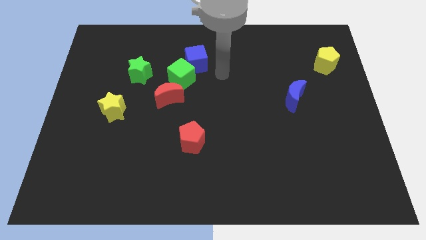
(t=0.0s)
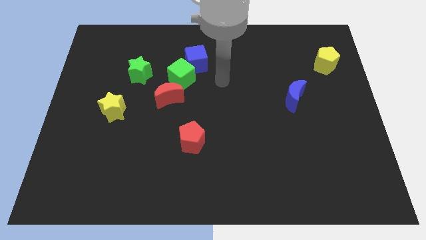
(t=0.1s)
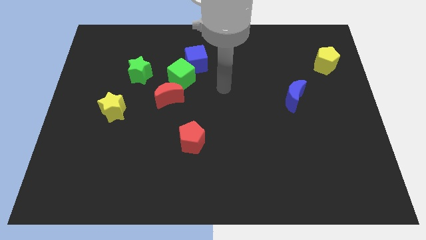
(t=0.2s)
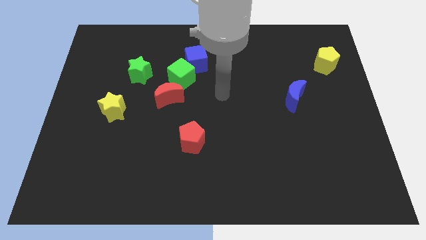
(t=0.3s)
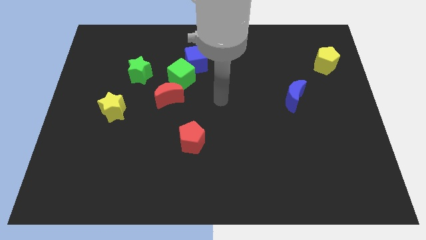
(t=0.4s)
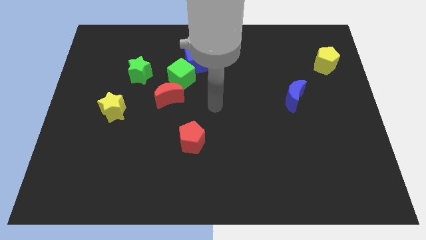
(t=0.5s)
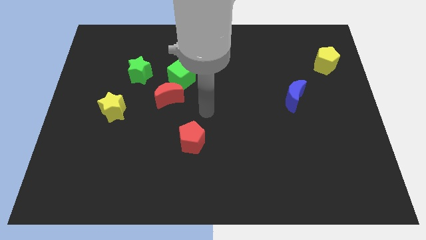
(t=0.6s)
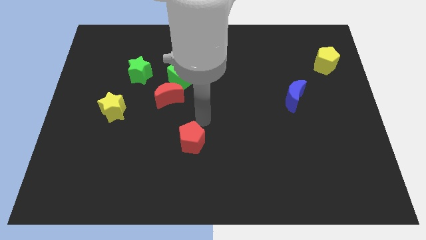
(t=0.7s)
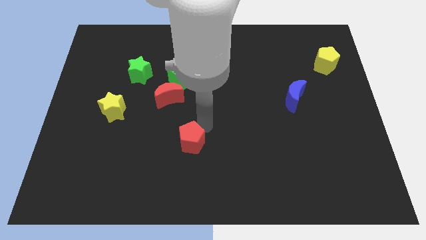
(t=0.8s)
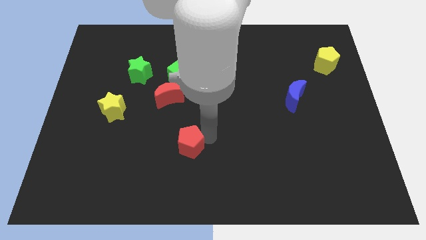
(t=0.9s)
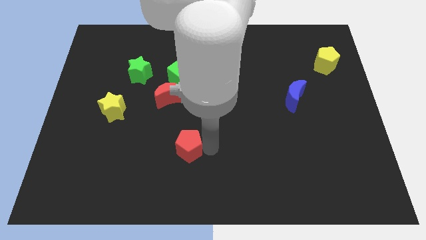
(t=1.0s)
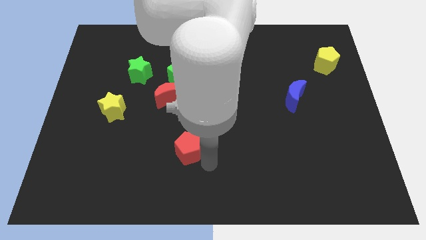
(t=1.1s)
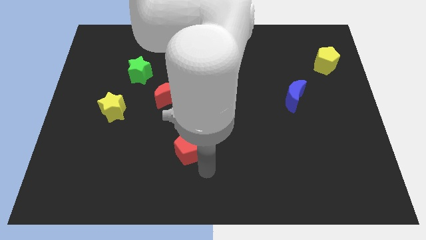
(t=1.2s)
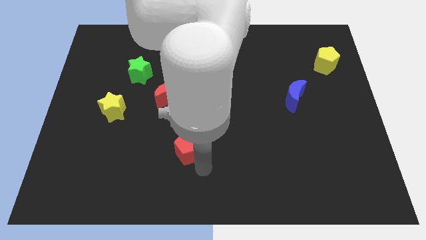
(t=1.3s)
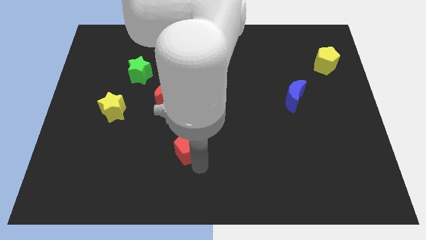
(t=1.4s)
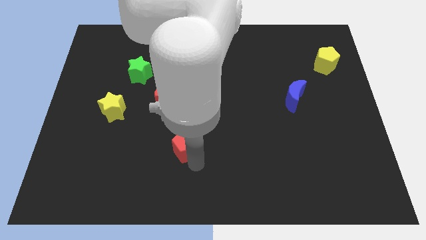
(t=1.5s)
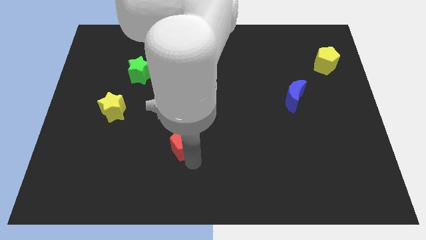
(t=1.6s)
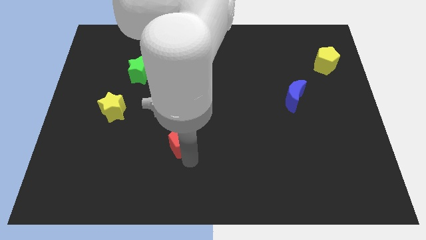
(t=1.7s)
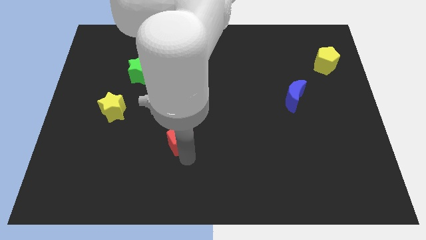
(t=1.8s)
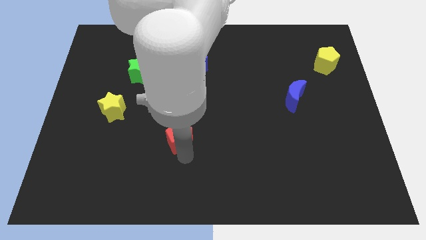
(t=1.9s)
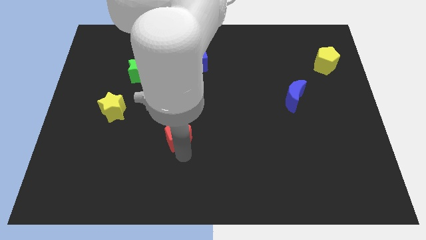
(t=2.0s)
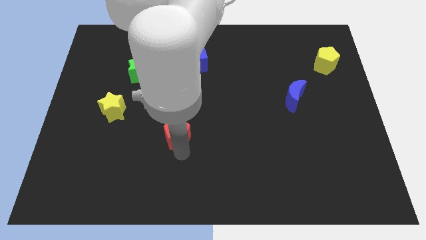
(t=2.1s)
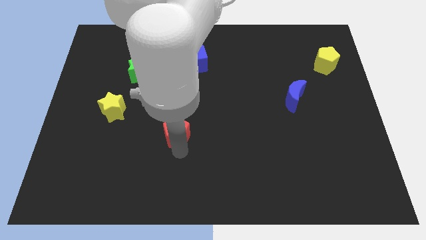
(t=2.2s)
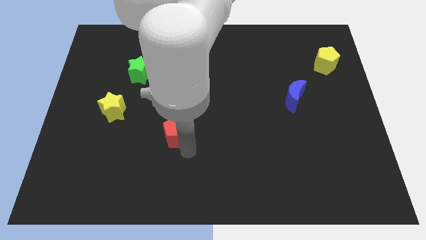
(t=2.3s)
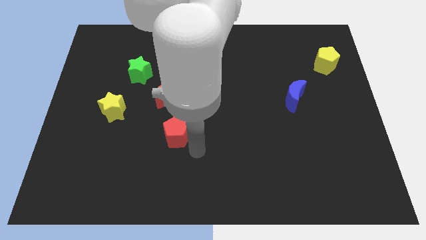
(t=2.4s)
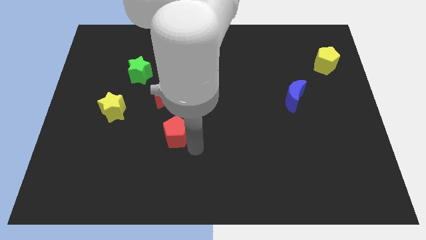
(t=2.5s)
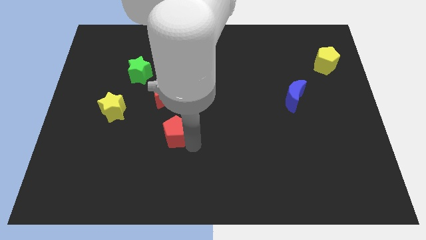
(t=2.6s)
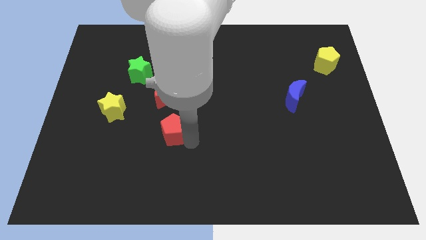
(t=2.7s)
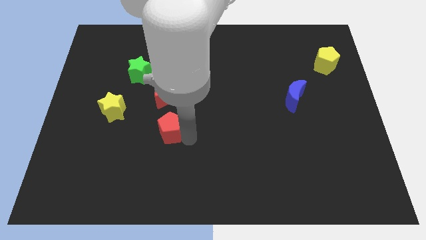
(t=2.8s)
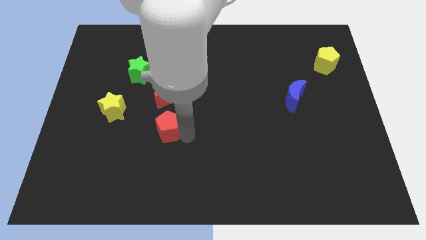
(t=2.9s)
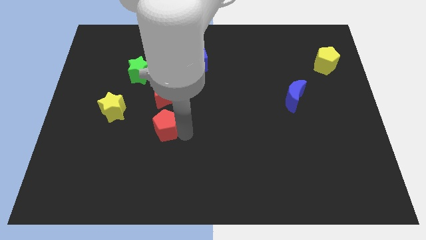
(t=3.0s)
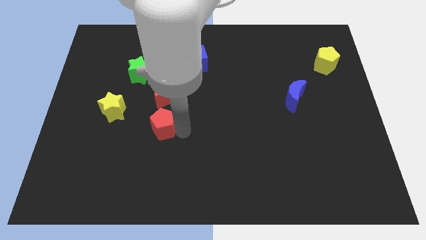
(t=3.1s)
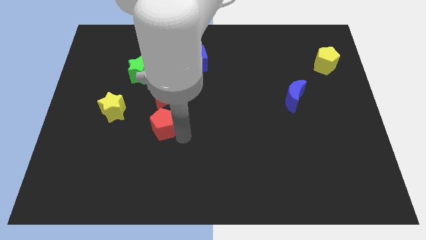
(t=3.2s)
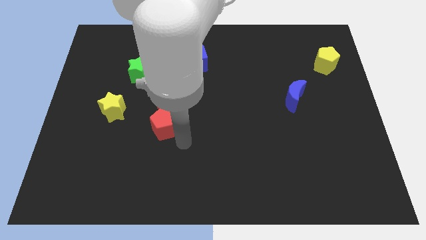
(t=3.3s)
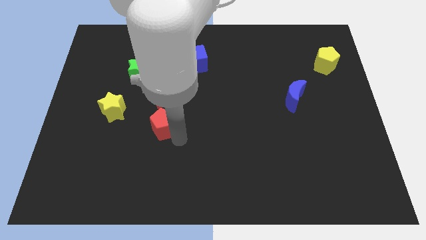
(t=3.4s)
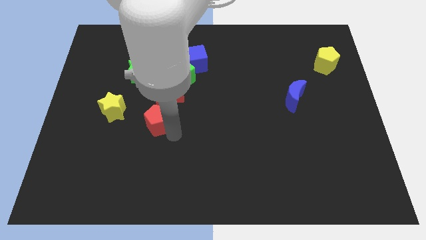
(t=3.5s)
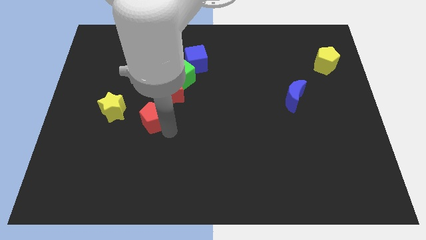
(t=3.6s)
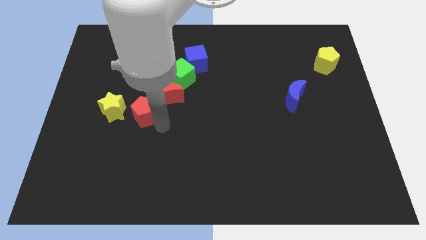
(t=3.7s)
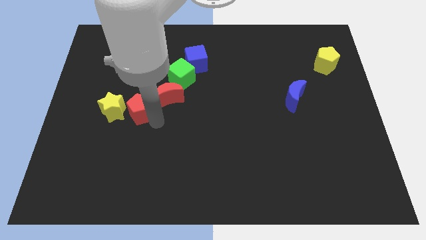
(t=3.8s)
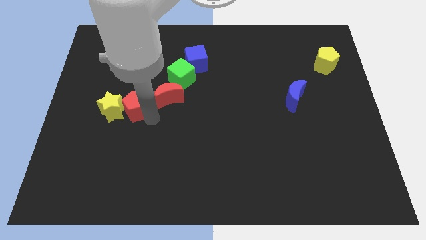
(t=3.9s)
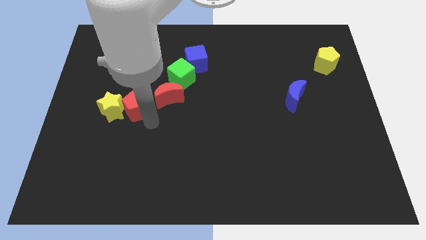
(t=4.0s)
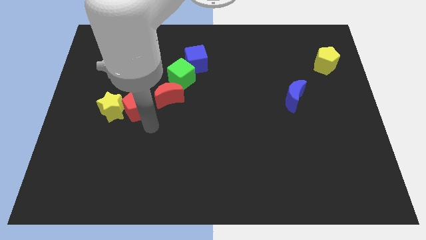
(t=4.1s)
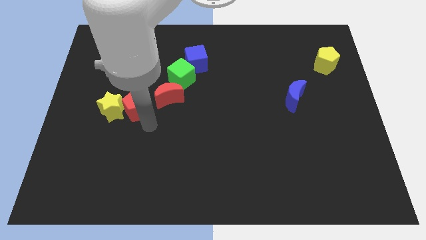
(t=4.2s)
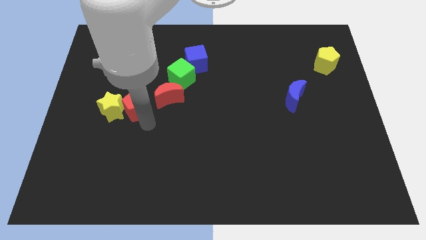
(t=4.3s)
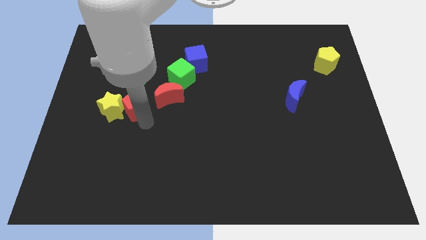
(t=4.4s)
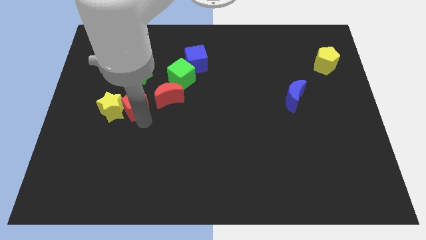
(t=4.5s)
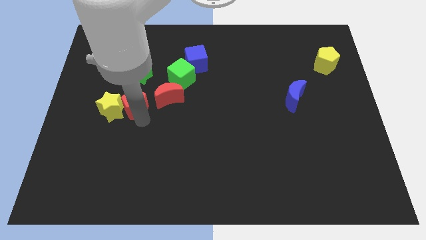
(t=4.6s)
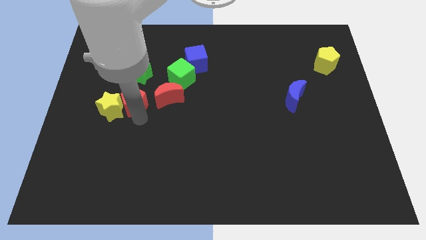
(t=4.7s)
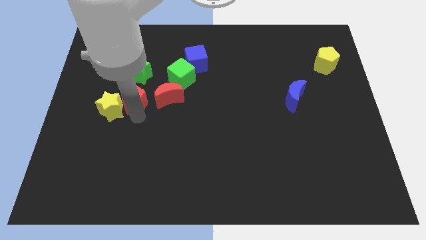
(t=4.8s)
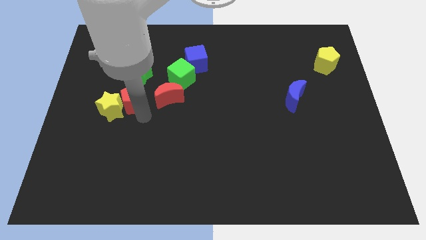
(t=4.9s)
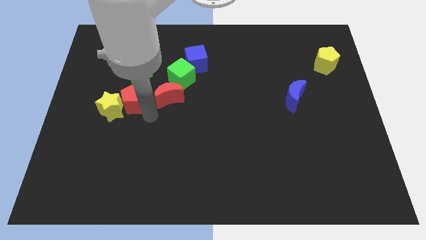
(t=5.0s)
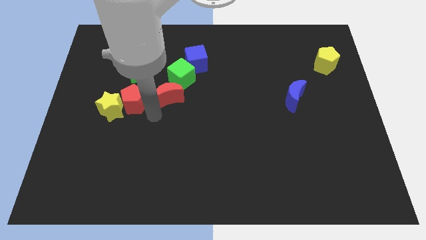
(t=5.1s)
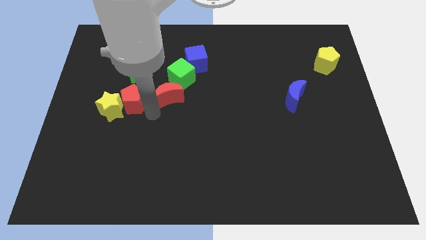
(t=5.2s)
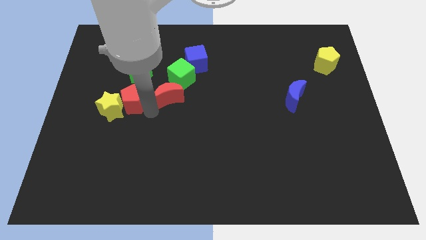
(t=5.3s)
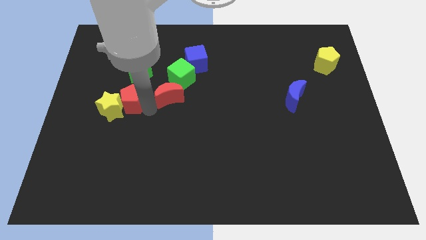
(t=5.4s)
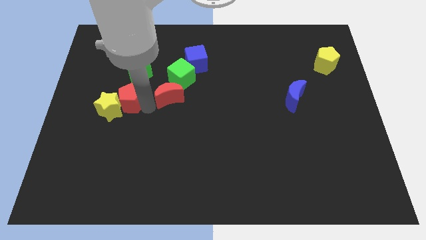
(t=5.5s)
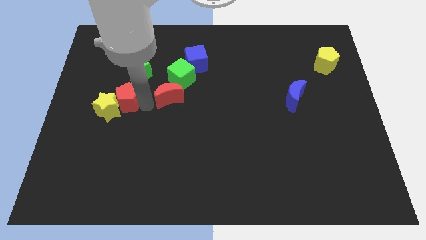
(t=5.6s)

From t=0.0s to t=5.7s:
slide the red pentagon to the bottom left of the green star

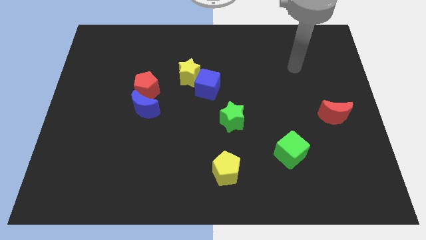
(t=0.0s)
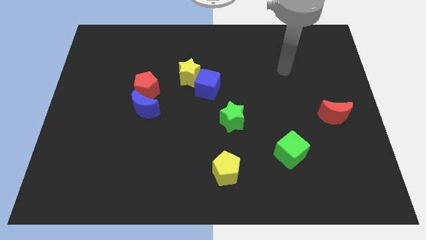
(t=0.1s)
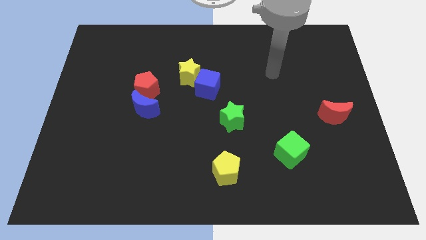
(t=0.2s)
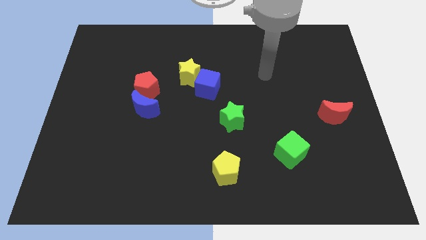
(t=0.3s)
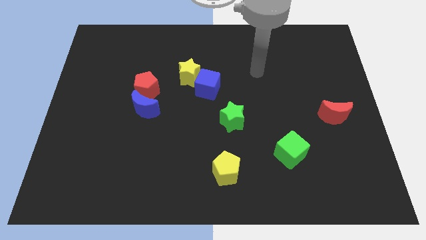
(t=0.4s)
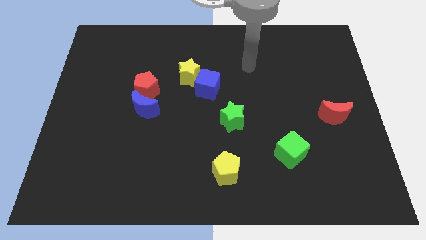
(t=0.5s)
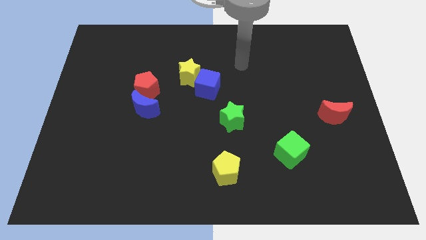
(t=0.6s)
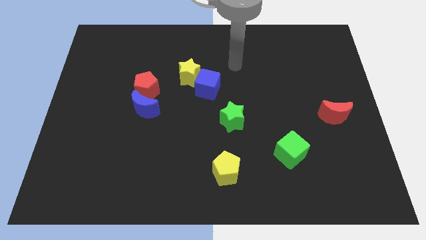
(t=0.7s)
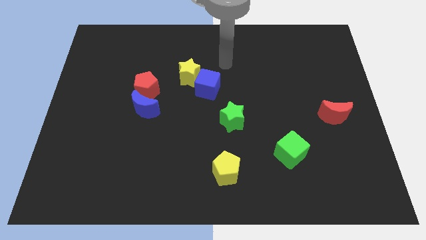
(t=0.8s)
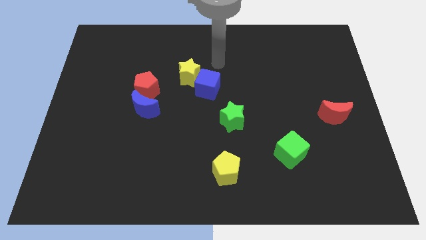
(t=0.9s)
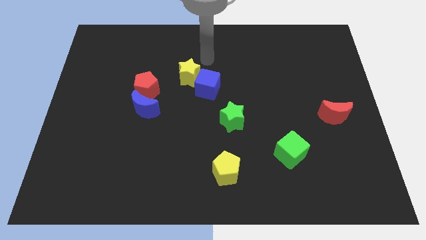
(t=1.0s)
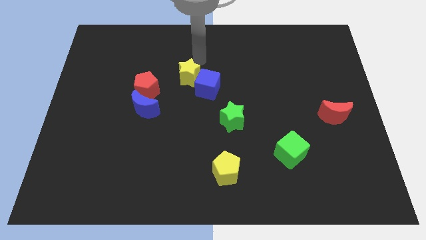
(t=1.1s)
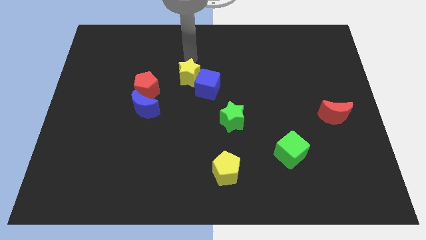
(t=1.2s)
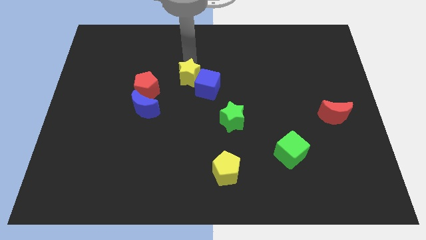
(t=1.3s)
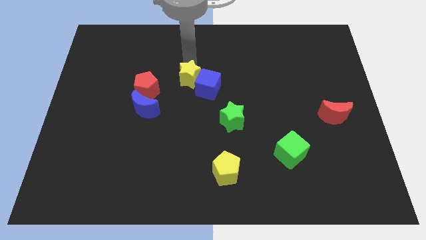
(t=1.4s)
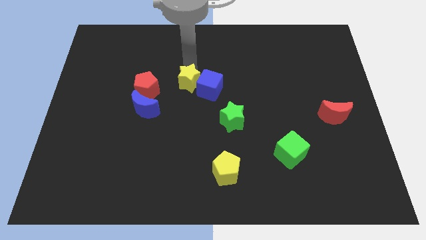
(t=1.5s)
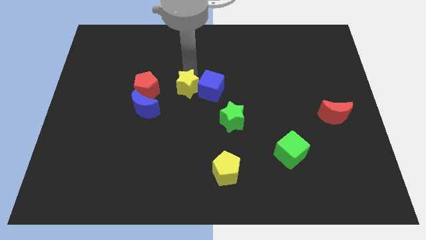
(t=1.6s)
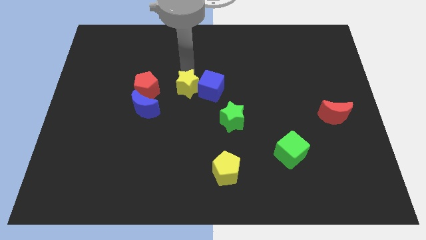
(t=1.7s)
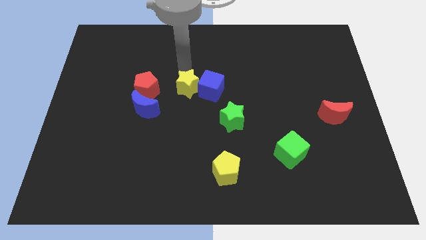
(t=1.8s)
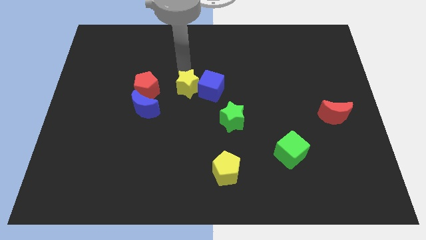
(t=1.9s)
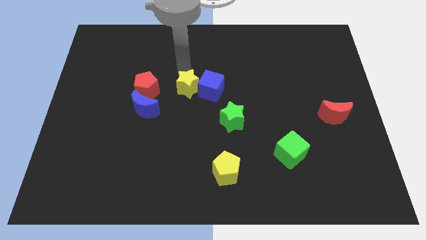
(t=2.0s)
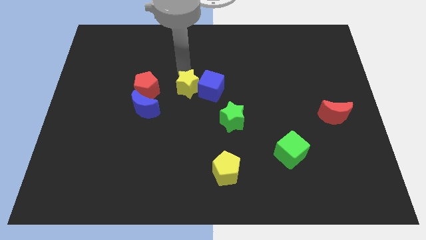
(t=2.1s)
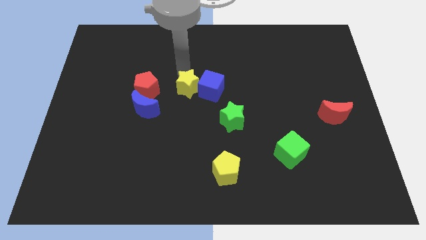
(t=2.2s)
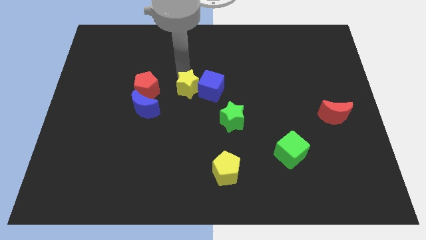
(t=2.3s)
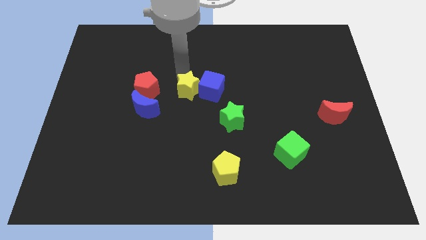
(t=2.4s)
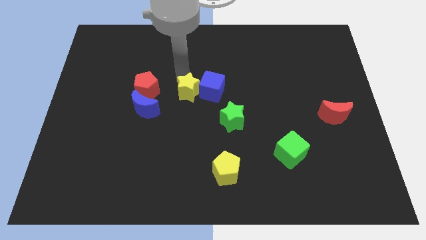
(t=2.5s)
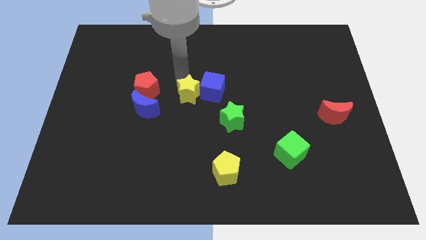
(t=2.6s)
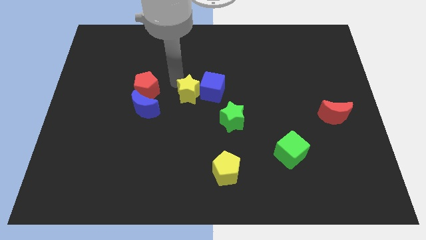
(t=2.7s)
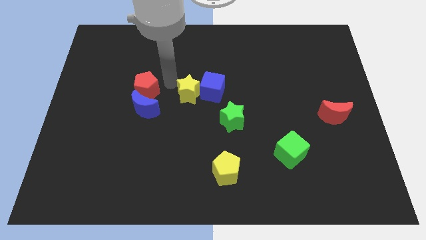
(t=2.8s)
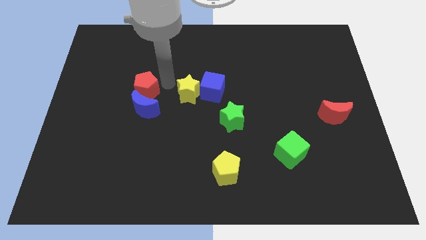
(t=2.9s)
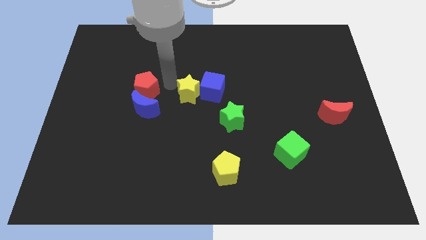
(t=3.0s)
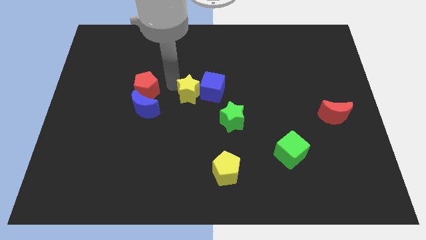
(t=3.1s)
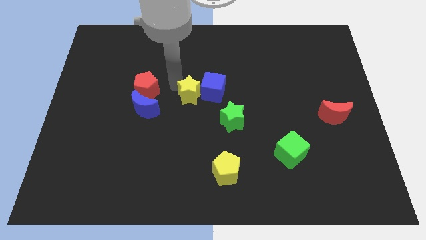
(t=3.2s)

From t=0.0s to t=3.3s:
push the yellow star diagonally up and to the left of the green star
